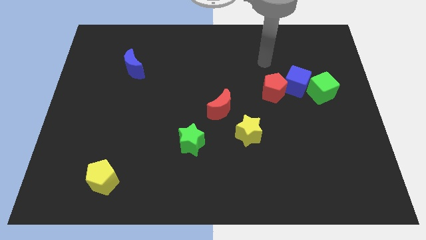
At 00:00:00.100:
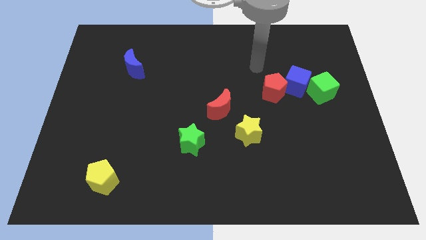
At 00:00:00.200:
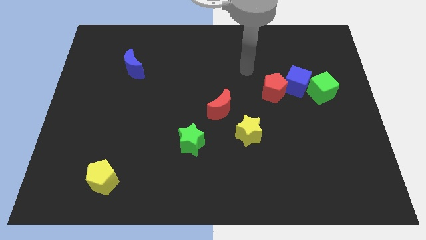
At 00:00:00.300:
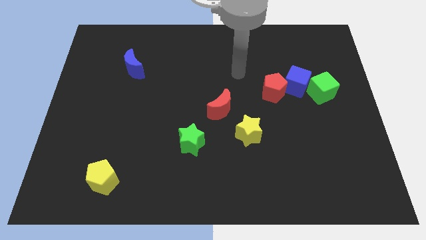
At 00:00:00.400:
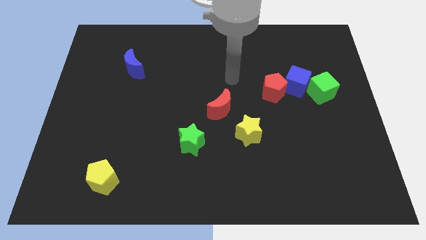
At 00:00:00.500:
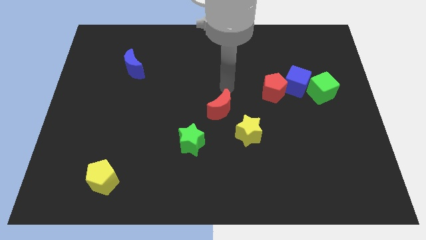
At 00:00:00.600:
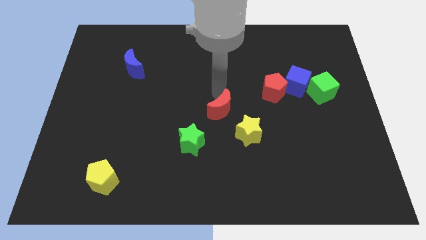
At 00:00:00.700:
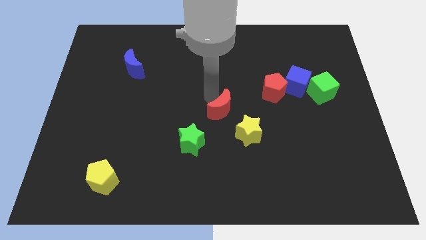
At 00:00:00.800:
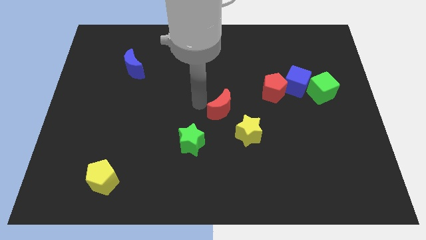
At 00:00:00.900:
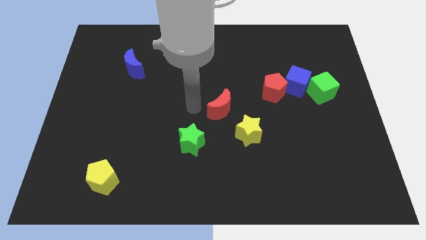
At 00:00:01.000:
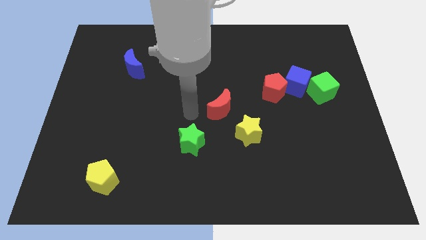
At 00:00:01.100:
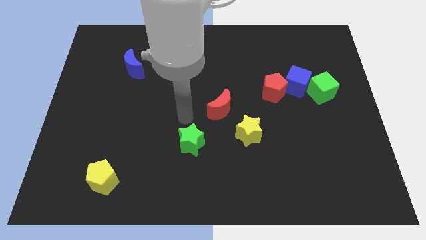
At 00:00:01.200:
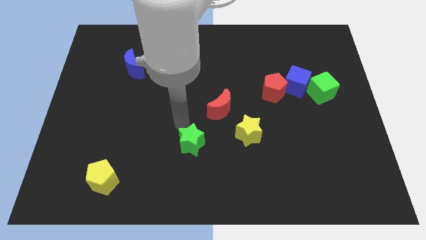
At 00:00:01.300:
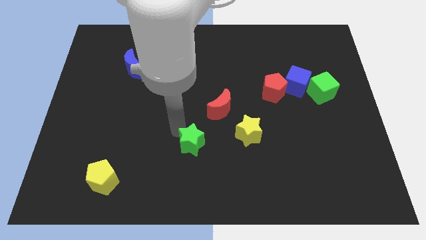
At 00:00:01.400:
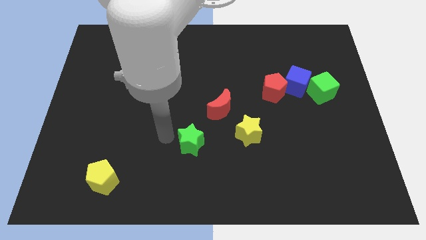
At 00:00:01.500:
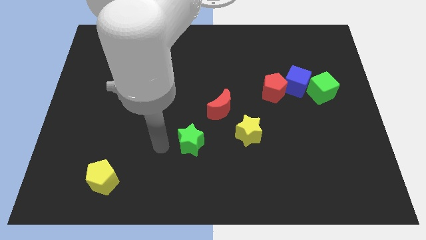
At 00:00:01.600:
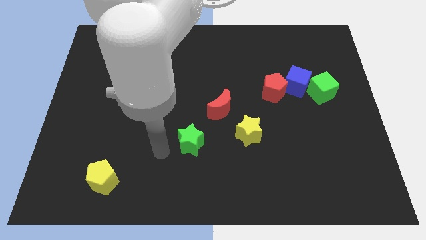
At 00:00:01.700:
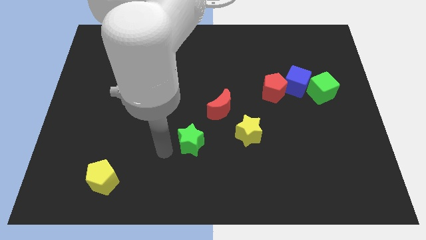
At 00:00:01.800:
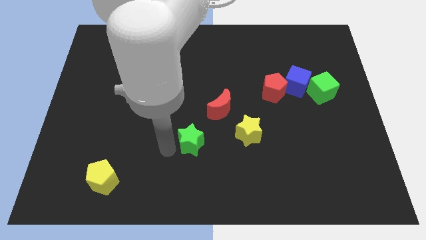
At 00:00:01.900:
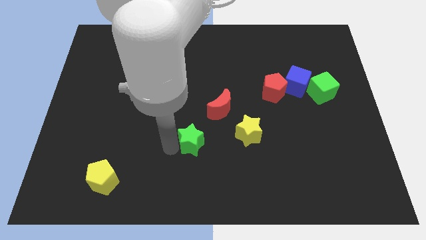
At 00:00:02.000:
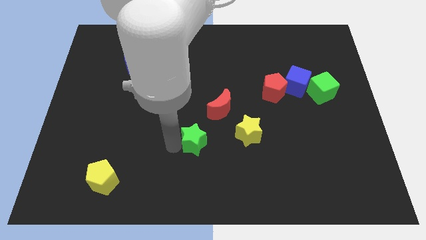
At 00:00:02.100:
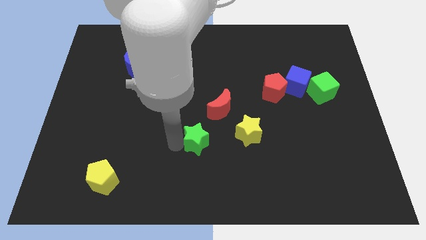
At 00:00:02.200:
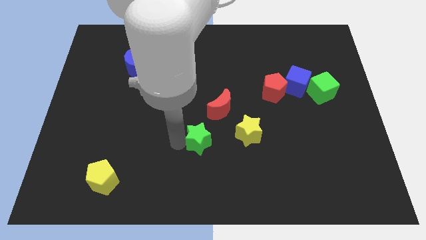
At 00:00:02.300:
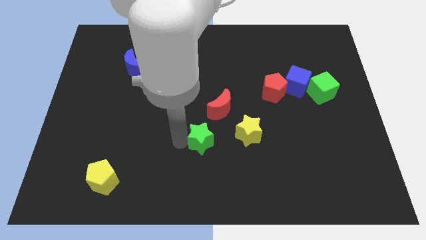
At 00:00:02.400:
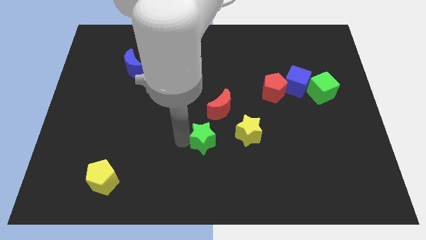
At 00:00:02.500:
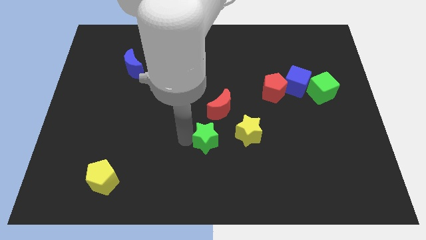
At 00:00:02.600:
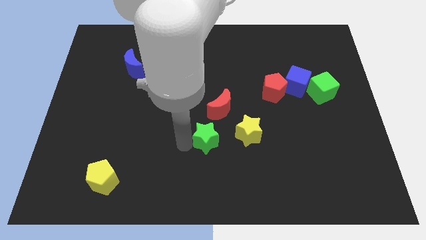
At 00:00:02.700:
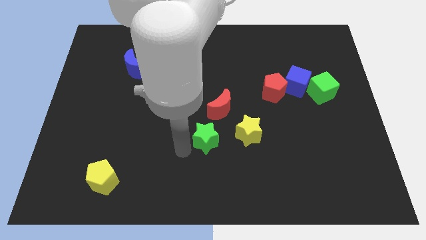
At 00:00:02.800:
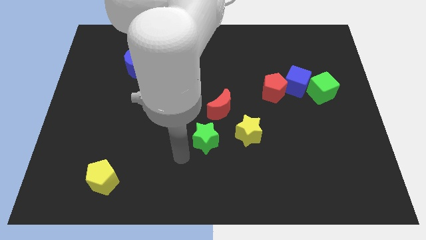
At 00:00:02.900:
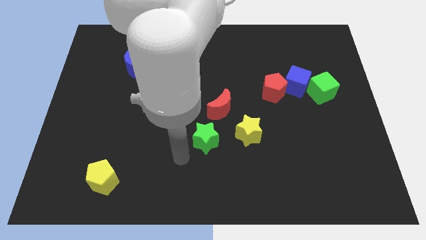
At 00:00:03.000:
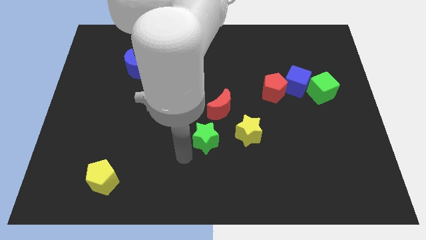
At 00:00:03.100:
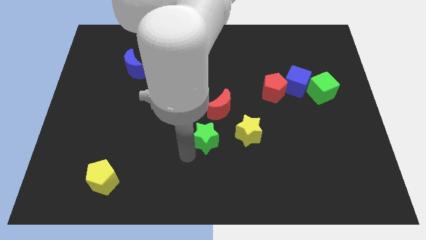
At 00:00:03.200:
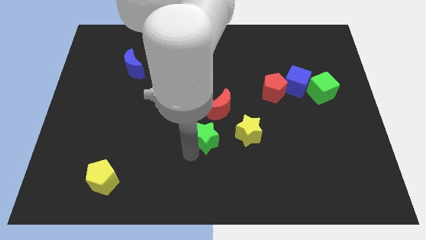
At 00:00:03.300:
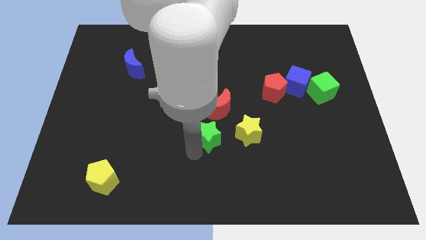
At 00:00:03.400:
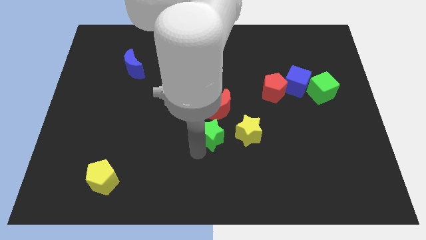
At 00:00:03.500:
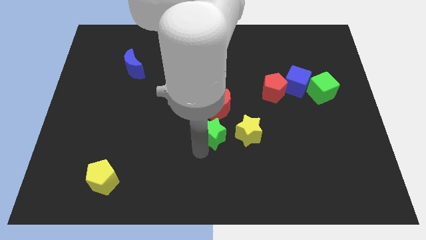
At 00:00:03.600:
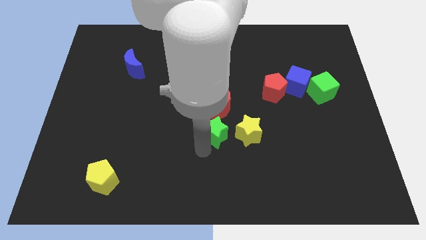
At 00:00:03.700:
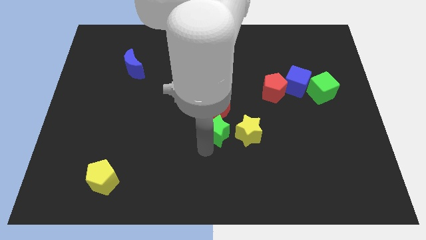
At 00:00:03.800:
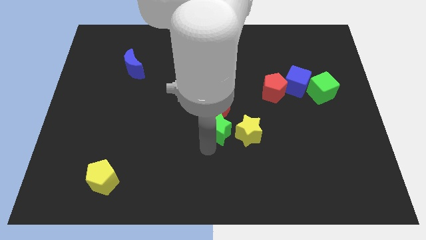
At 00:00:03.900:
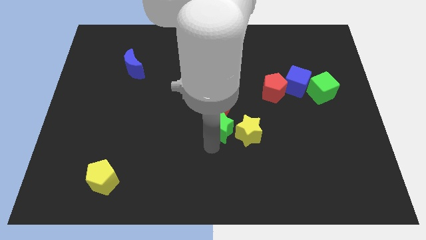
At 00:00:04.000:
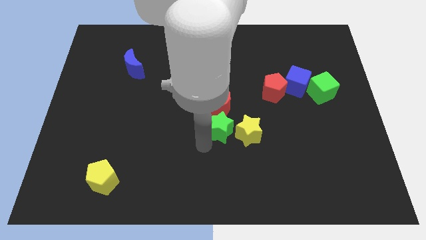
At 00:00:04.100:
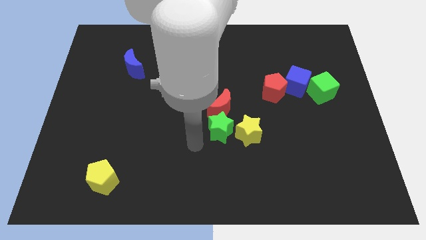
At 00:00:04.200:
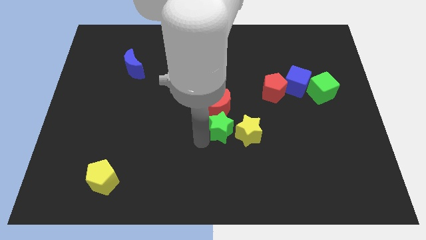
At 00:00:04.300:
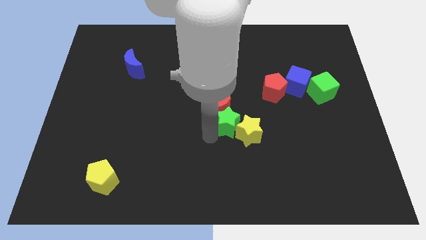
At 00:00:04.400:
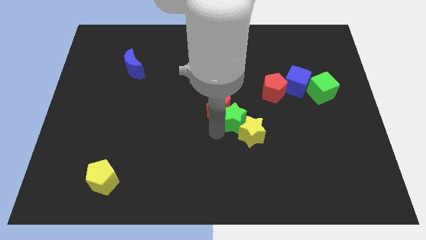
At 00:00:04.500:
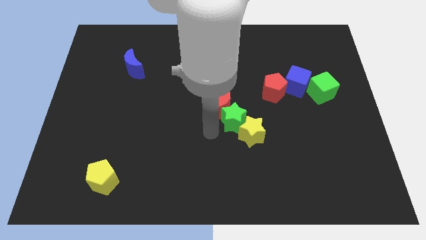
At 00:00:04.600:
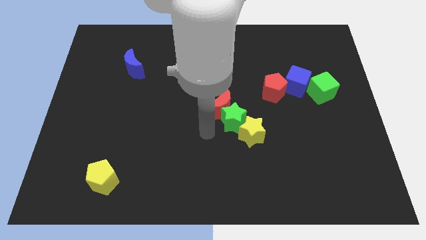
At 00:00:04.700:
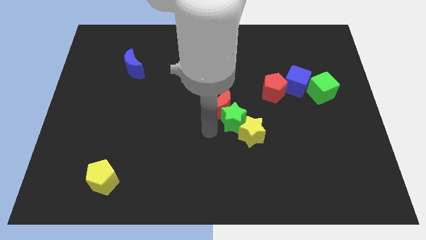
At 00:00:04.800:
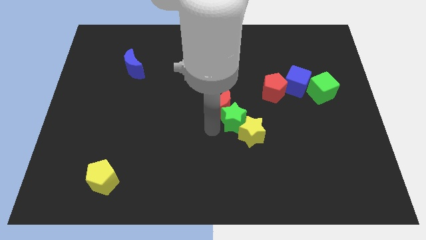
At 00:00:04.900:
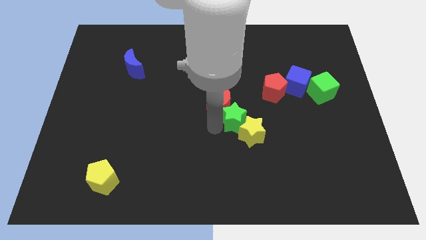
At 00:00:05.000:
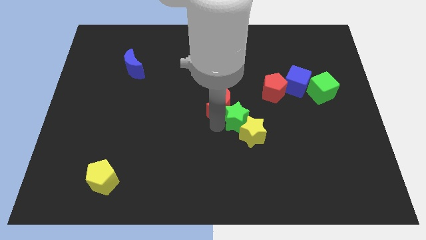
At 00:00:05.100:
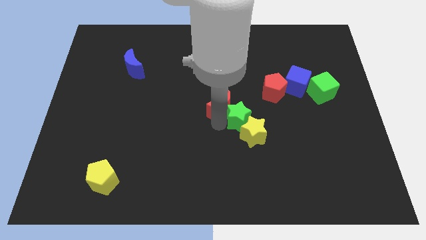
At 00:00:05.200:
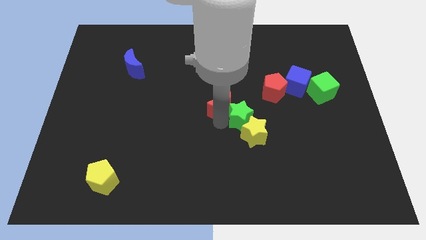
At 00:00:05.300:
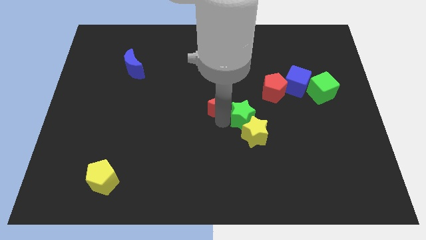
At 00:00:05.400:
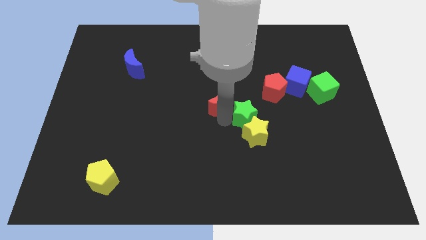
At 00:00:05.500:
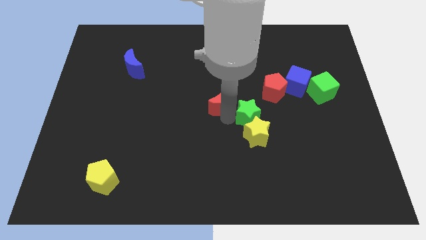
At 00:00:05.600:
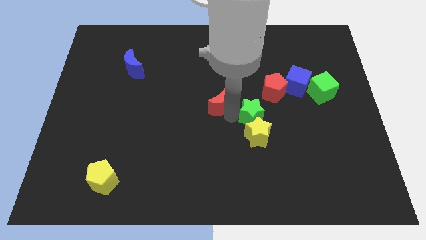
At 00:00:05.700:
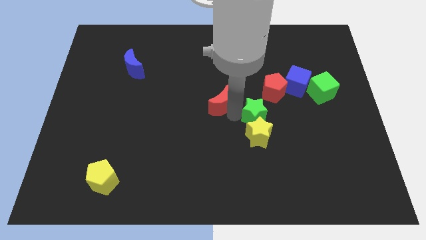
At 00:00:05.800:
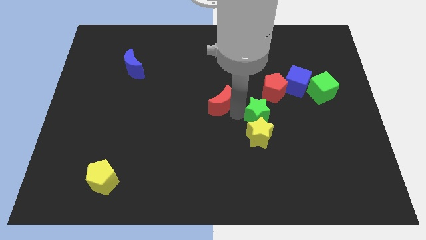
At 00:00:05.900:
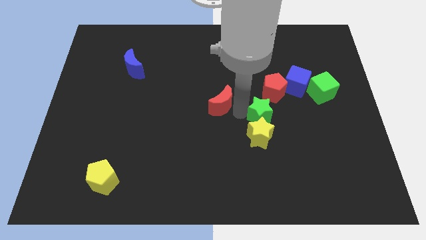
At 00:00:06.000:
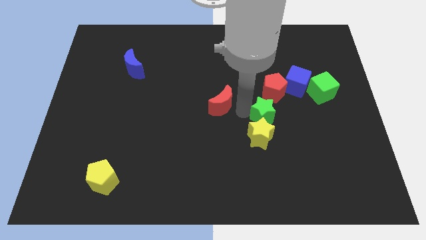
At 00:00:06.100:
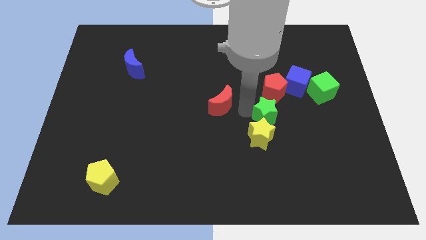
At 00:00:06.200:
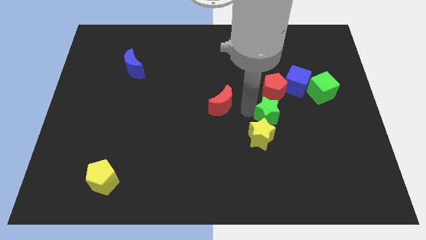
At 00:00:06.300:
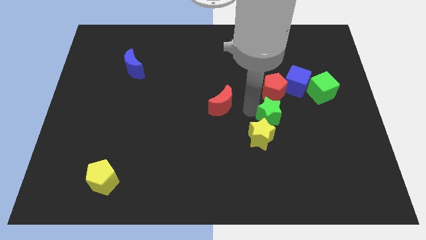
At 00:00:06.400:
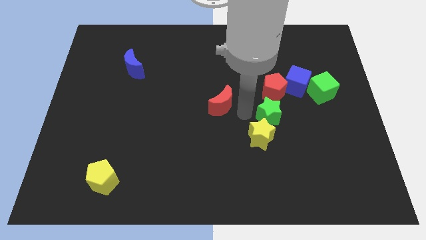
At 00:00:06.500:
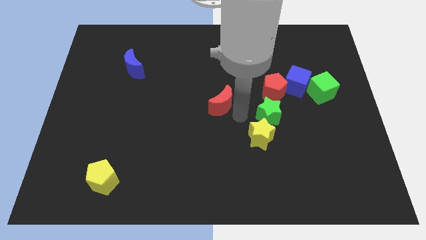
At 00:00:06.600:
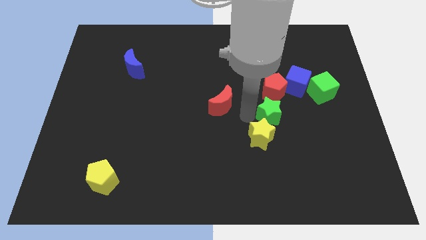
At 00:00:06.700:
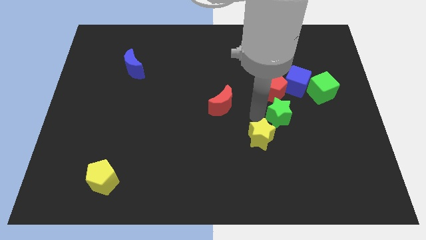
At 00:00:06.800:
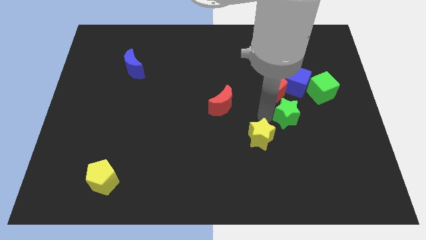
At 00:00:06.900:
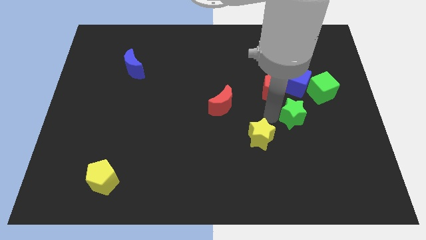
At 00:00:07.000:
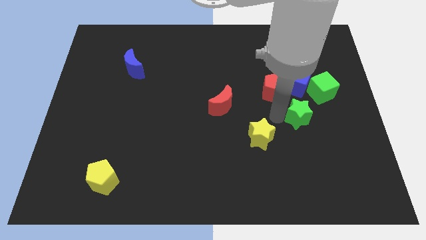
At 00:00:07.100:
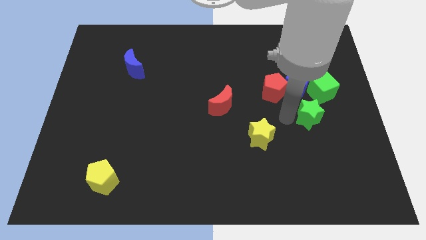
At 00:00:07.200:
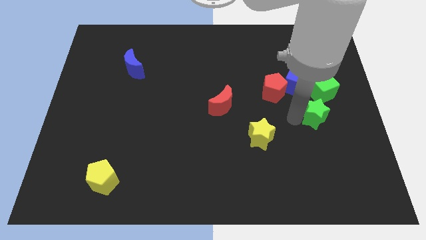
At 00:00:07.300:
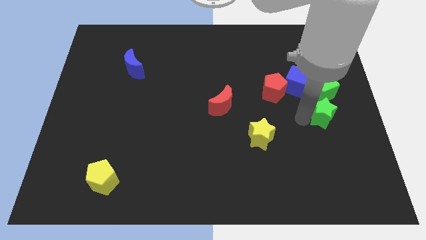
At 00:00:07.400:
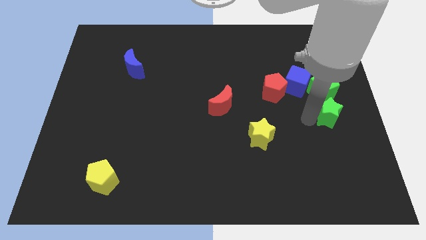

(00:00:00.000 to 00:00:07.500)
push the green star to the right side
